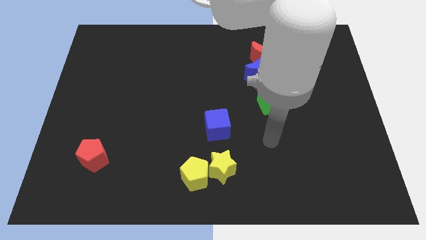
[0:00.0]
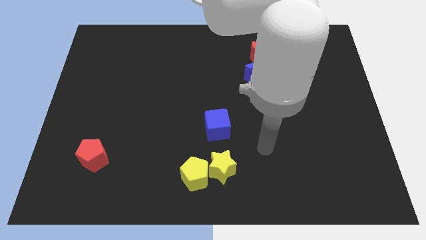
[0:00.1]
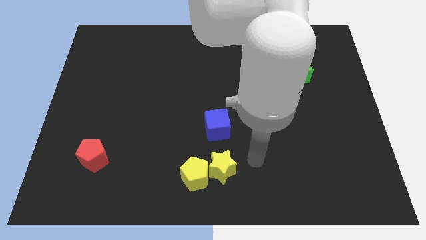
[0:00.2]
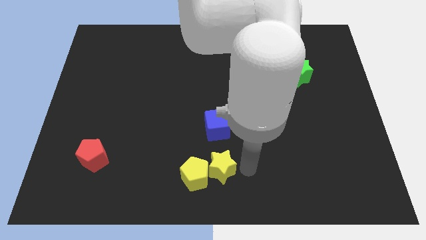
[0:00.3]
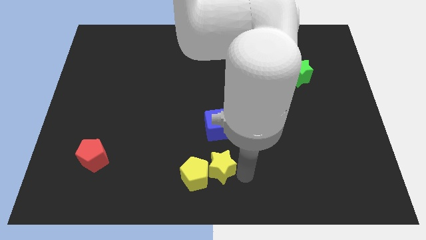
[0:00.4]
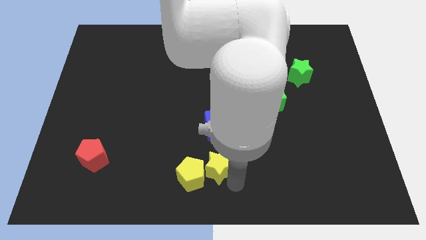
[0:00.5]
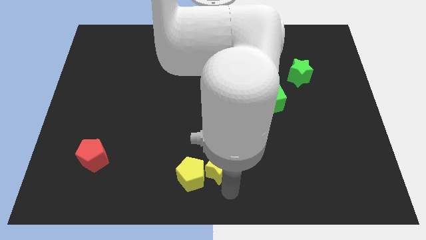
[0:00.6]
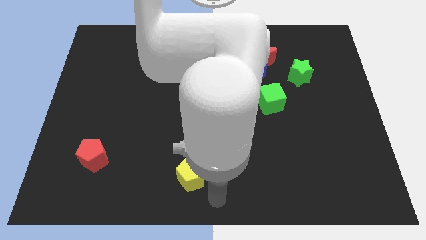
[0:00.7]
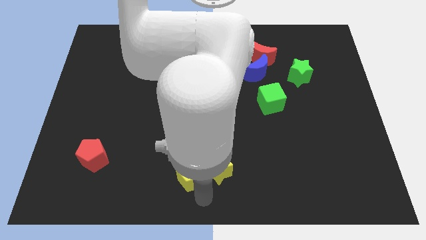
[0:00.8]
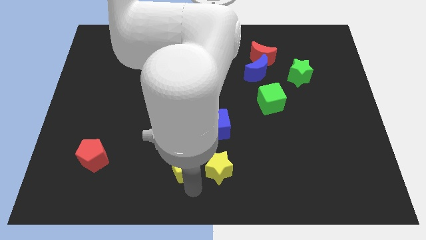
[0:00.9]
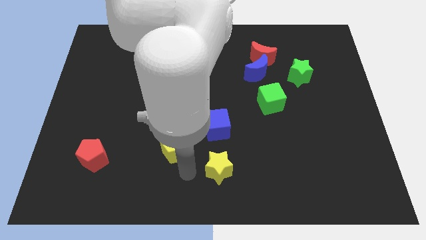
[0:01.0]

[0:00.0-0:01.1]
separate the yellow star from the yellow pentagon

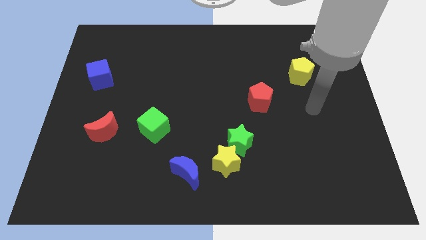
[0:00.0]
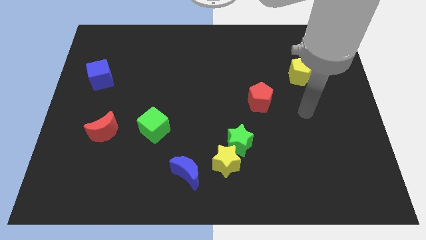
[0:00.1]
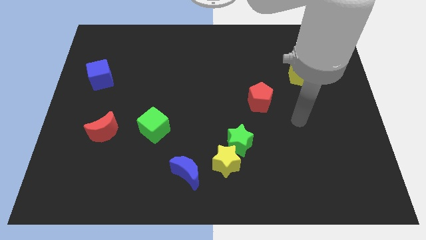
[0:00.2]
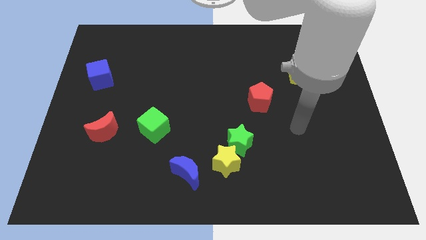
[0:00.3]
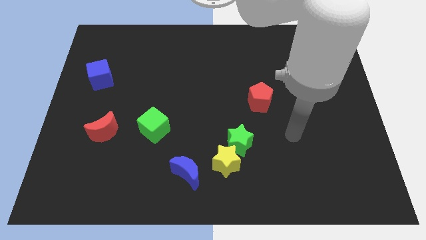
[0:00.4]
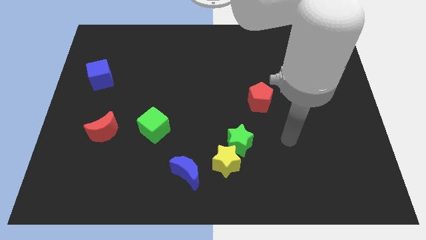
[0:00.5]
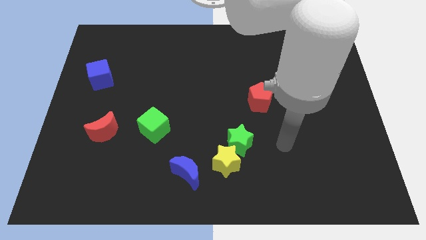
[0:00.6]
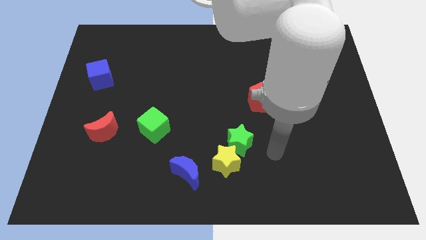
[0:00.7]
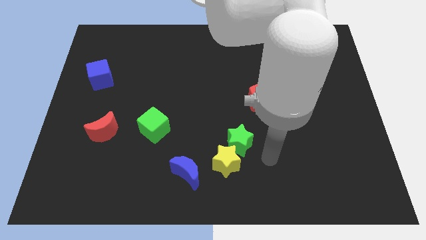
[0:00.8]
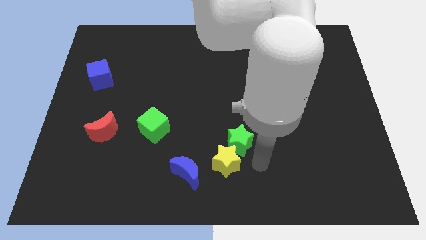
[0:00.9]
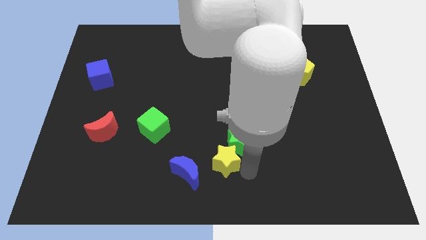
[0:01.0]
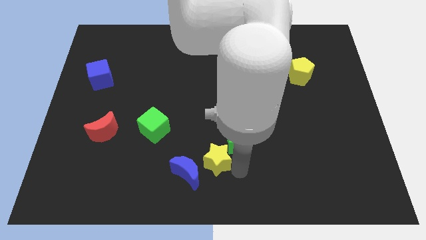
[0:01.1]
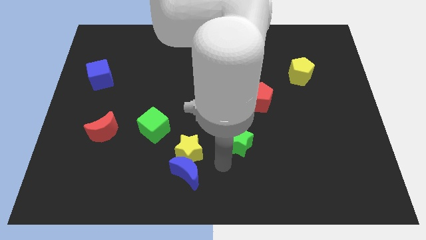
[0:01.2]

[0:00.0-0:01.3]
separate the green star from the yellow star

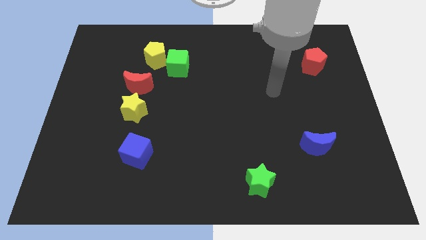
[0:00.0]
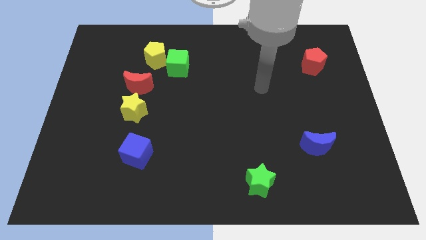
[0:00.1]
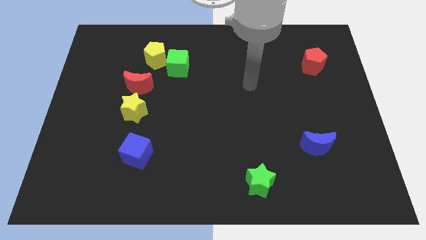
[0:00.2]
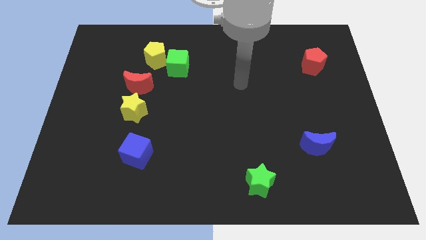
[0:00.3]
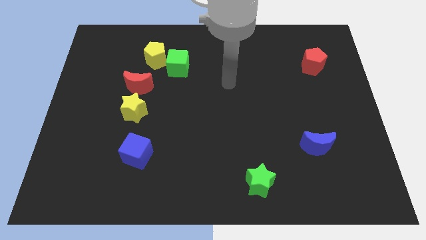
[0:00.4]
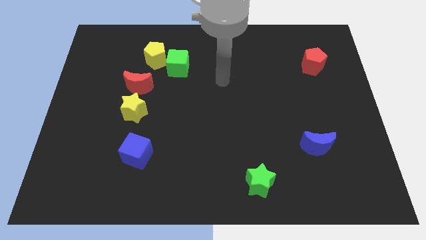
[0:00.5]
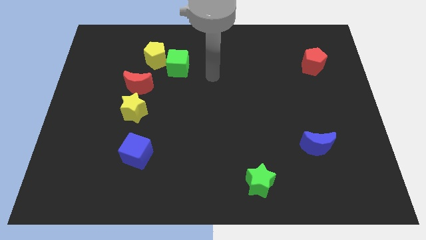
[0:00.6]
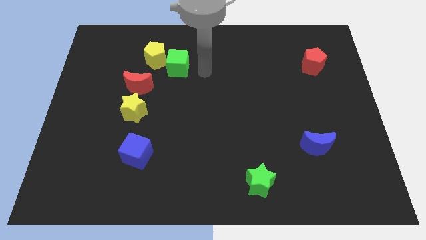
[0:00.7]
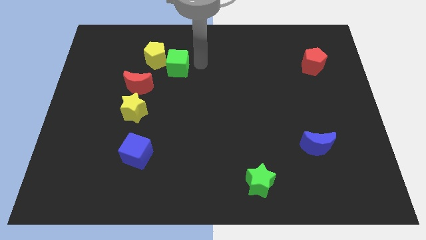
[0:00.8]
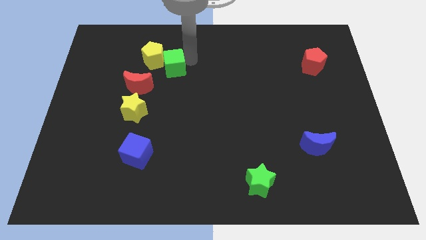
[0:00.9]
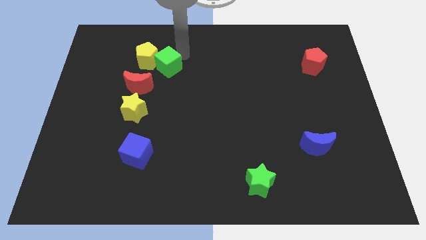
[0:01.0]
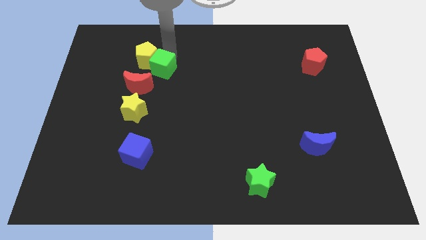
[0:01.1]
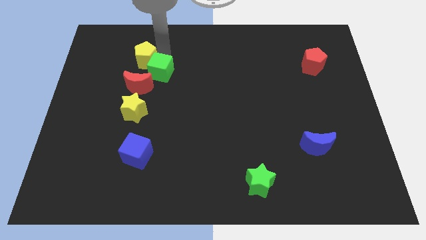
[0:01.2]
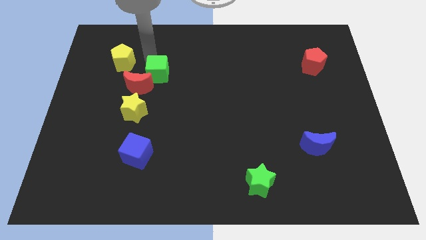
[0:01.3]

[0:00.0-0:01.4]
pull the green cube apart from the yellow pentagon

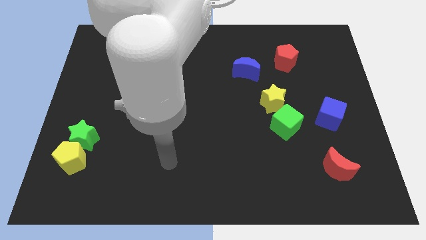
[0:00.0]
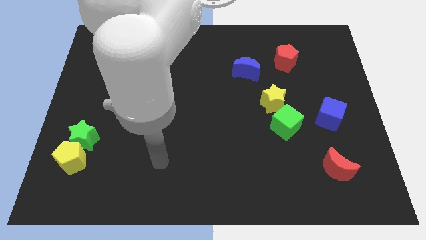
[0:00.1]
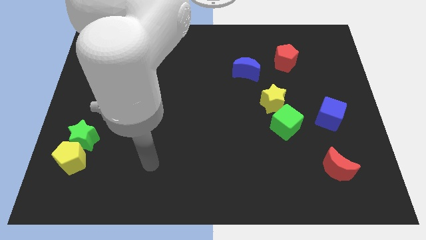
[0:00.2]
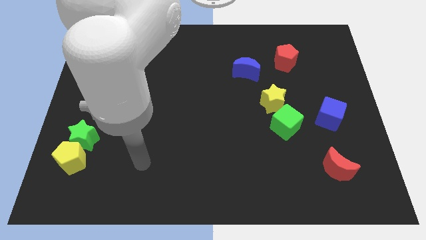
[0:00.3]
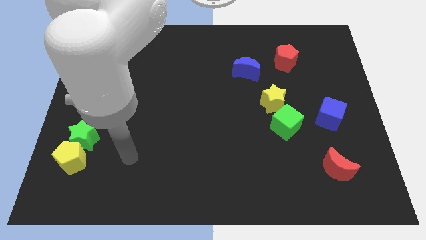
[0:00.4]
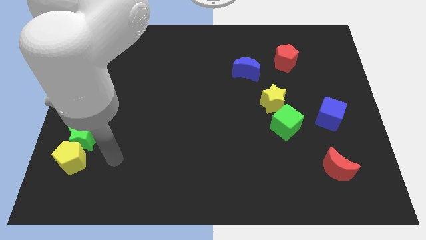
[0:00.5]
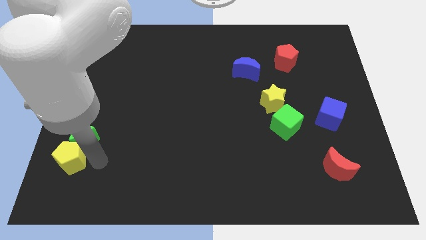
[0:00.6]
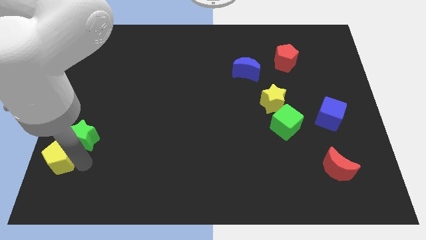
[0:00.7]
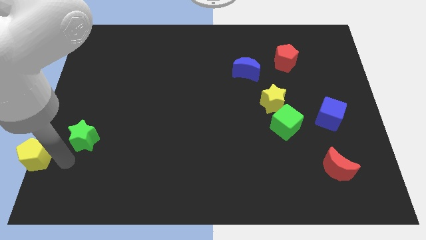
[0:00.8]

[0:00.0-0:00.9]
move the green star away from the yellow pentagon

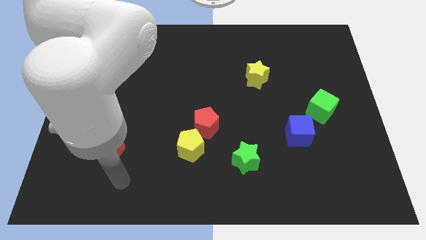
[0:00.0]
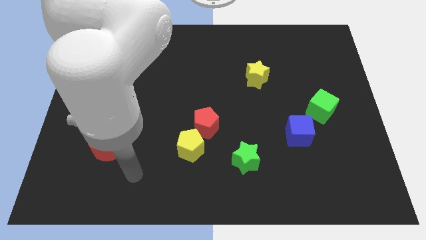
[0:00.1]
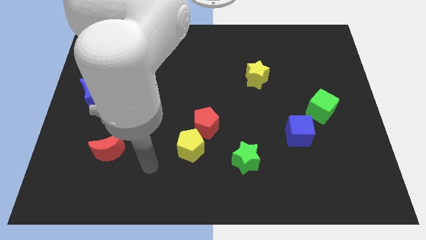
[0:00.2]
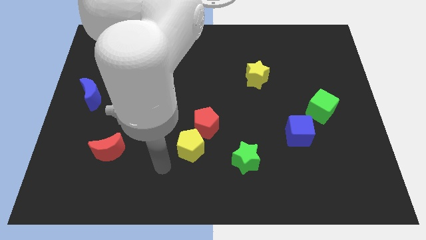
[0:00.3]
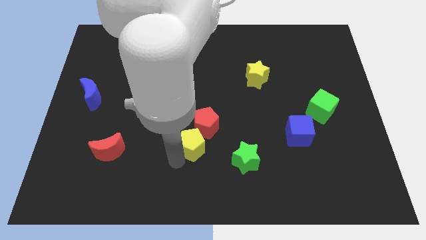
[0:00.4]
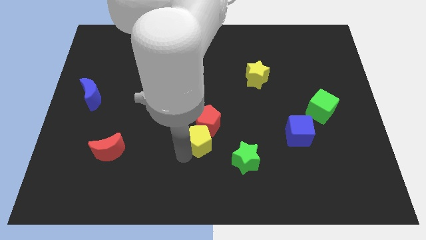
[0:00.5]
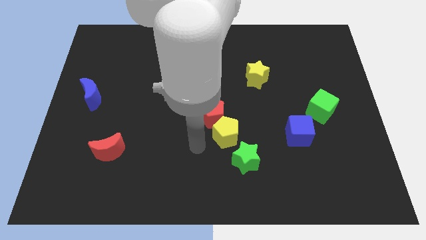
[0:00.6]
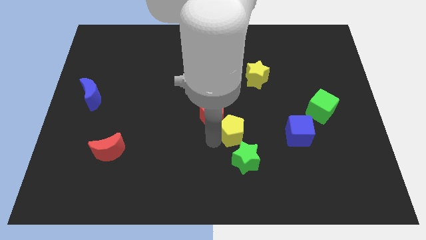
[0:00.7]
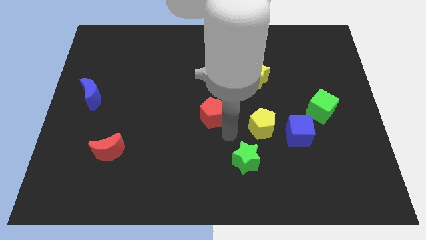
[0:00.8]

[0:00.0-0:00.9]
move the red pentagon away from the yellow pentagon

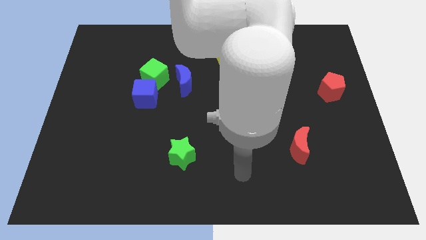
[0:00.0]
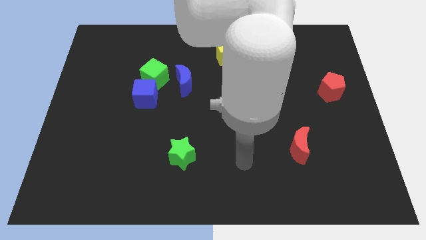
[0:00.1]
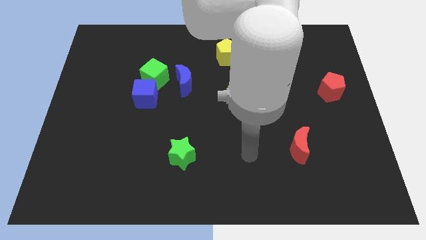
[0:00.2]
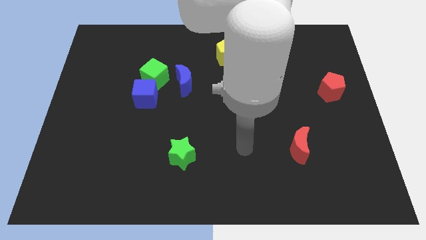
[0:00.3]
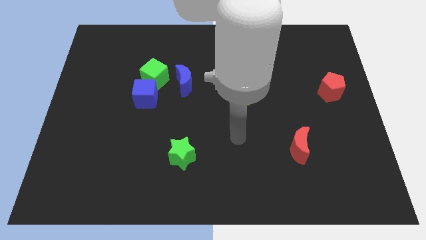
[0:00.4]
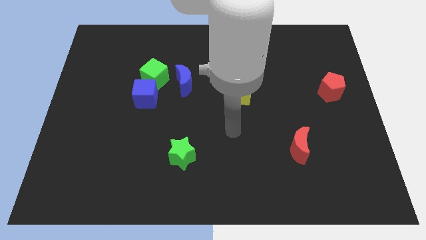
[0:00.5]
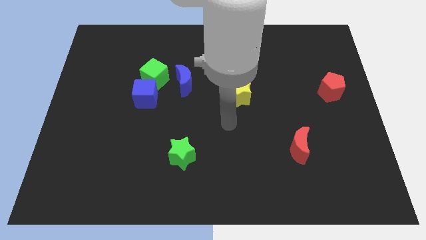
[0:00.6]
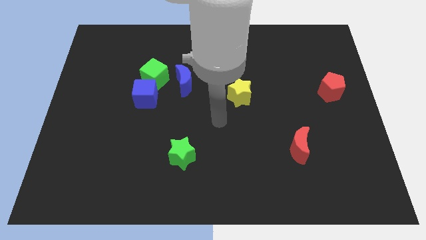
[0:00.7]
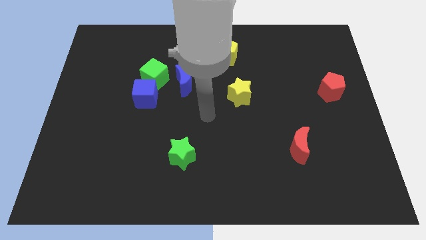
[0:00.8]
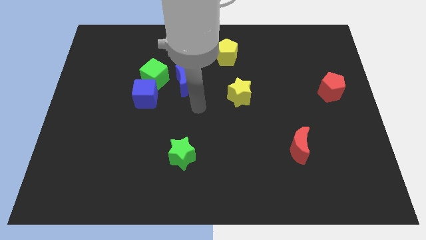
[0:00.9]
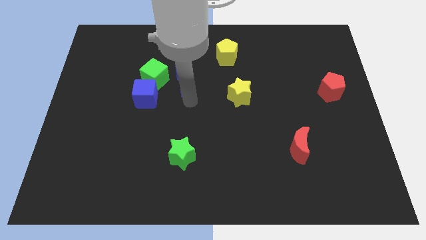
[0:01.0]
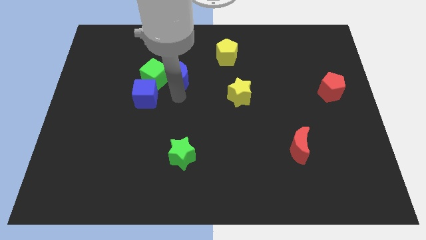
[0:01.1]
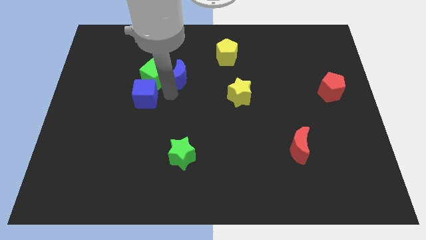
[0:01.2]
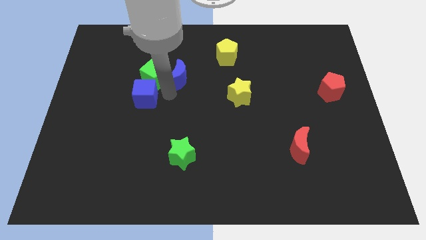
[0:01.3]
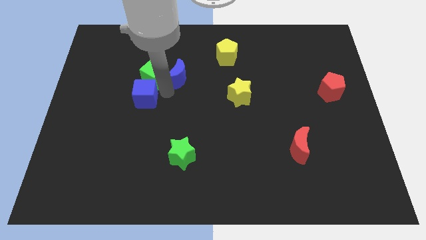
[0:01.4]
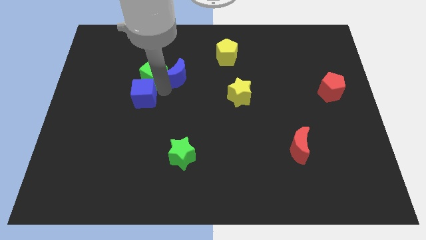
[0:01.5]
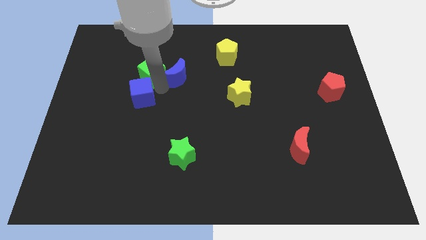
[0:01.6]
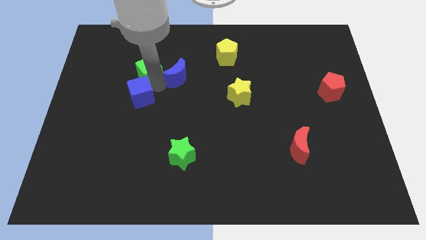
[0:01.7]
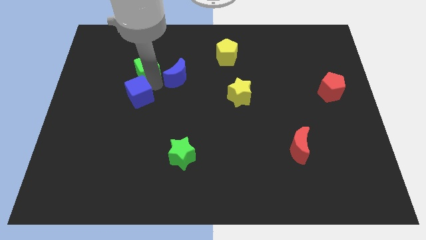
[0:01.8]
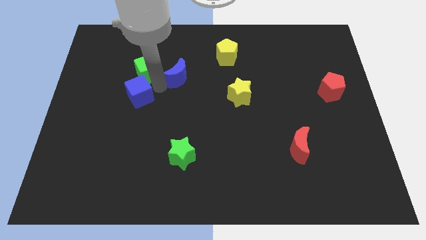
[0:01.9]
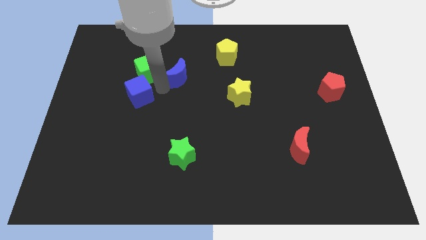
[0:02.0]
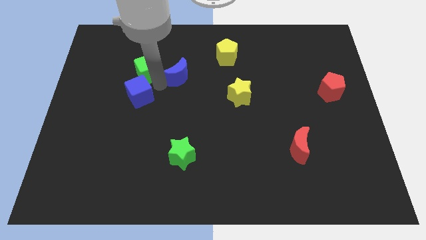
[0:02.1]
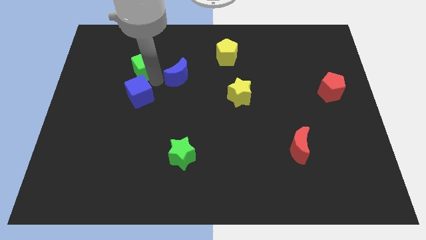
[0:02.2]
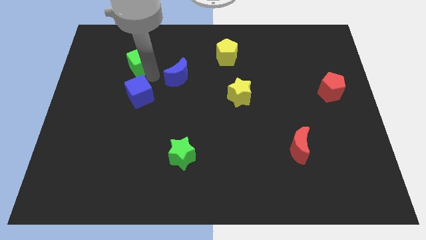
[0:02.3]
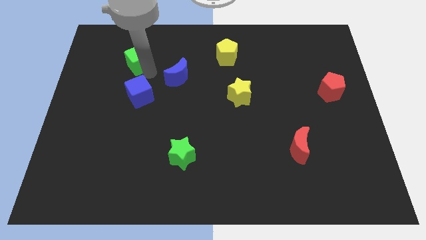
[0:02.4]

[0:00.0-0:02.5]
pull the green cube apart from the blue cube and blue moon

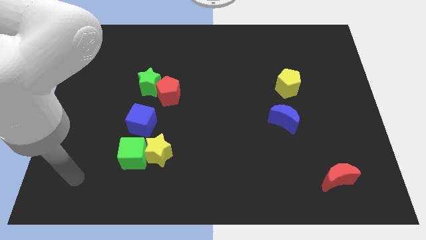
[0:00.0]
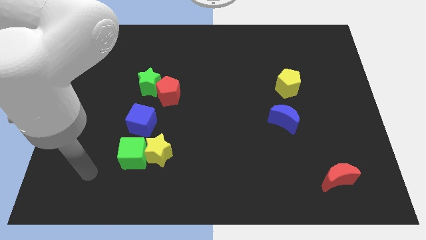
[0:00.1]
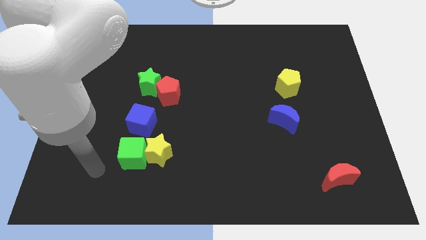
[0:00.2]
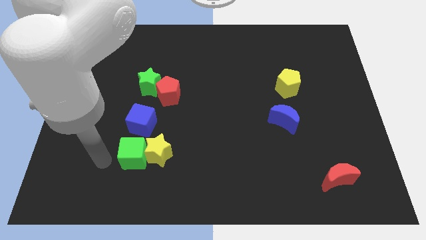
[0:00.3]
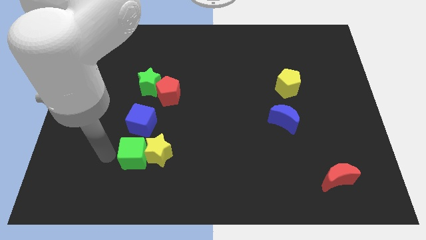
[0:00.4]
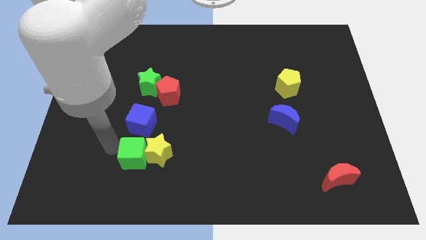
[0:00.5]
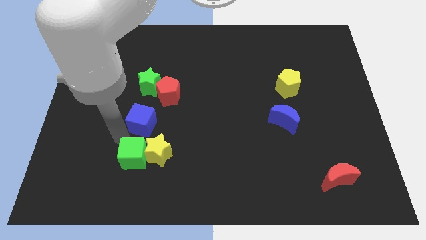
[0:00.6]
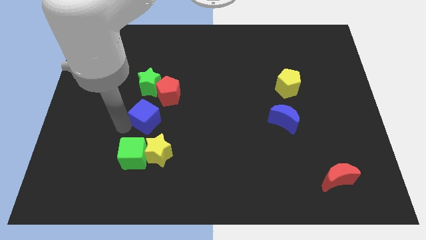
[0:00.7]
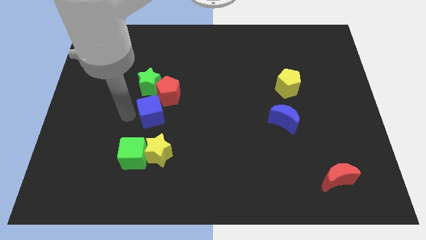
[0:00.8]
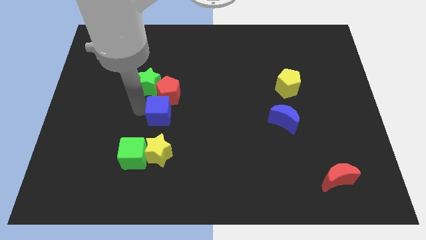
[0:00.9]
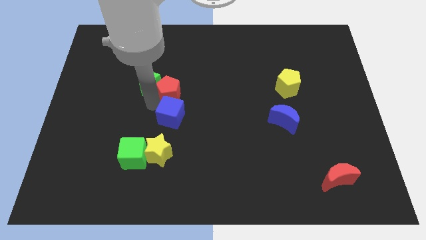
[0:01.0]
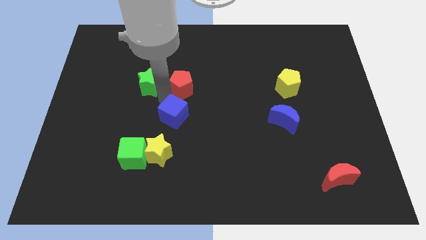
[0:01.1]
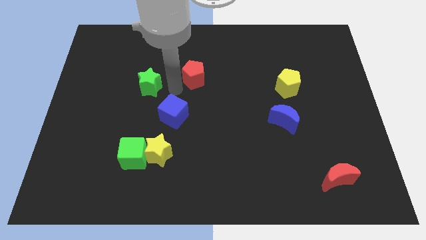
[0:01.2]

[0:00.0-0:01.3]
pull the green star apart from the red pentagon
